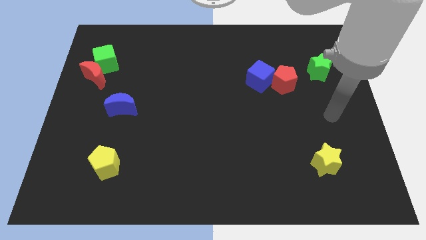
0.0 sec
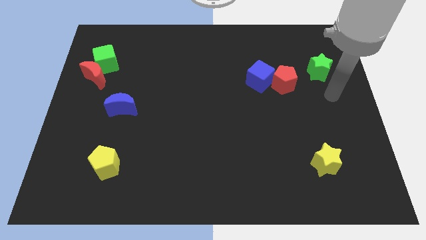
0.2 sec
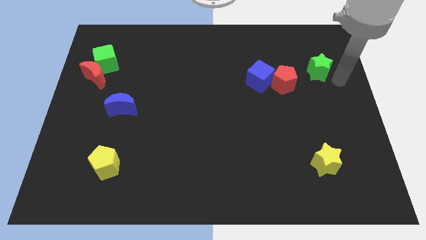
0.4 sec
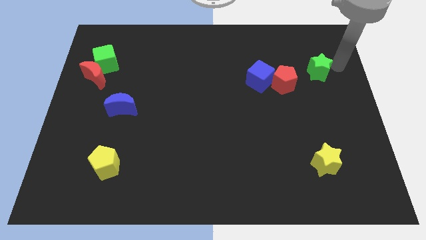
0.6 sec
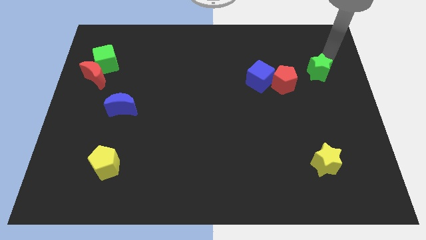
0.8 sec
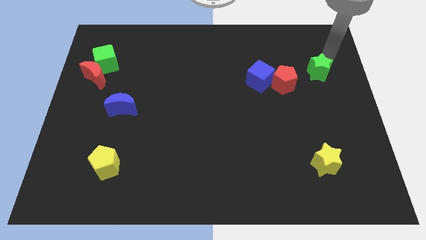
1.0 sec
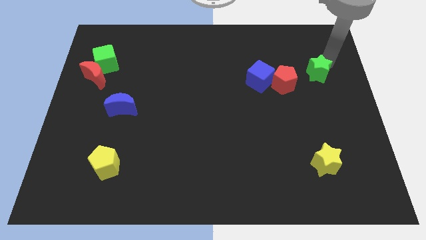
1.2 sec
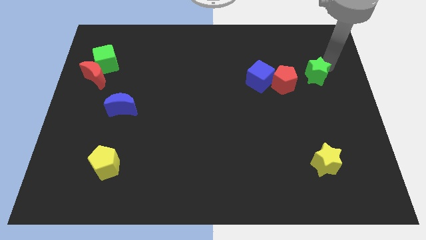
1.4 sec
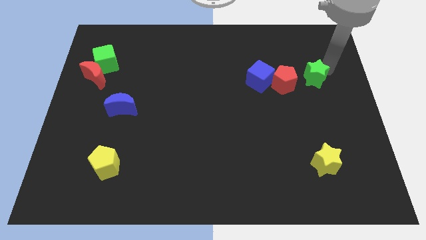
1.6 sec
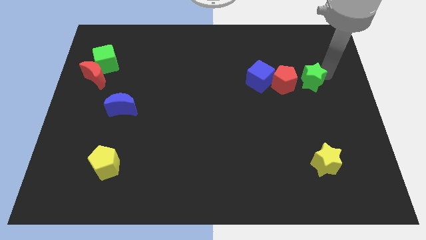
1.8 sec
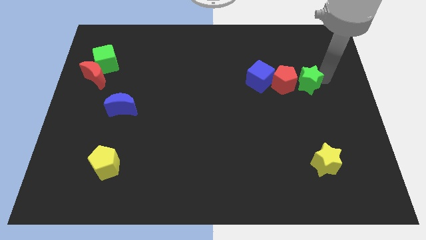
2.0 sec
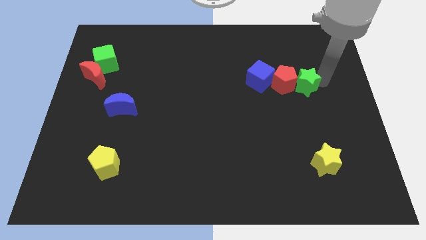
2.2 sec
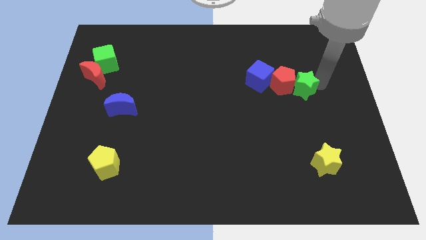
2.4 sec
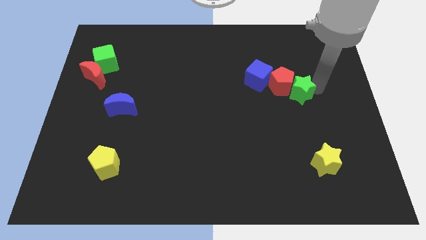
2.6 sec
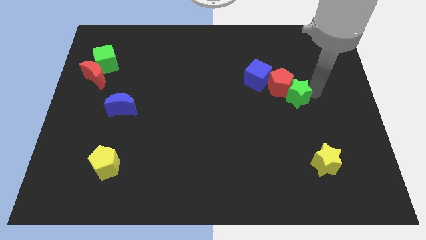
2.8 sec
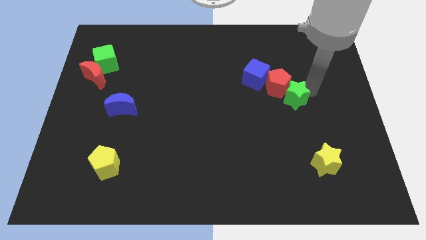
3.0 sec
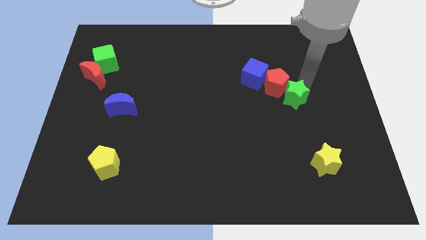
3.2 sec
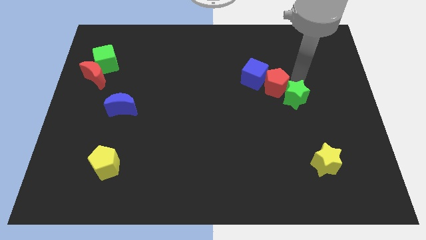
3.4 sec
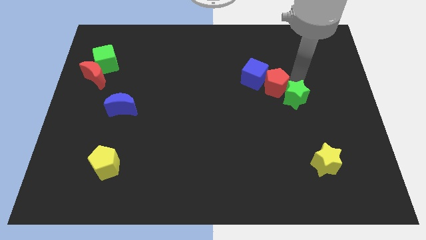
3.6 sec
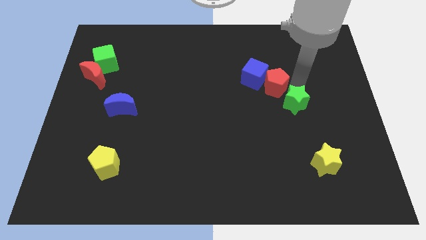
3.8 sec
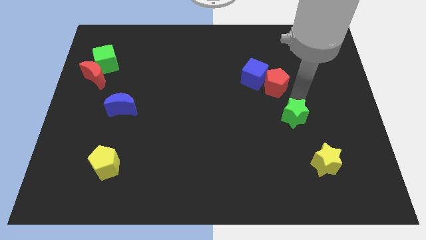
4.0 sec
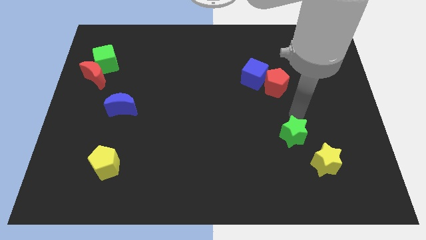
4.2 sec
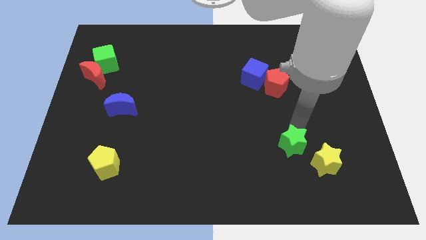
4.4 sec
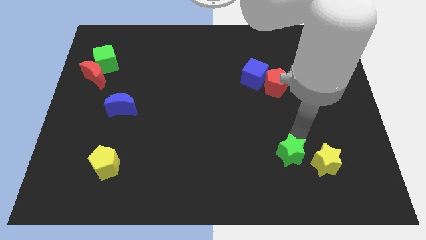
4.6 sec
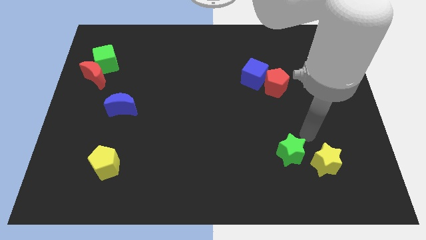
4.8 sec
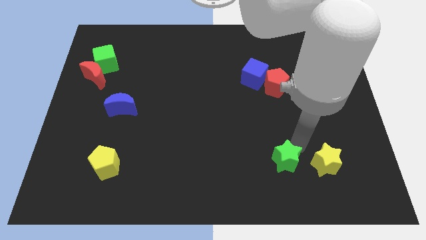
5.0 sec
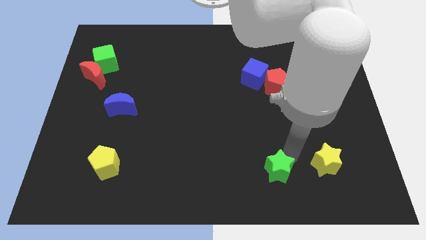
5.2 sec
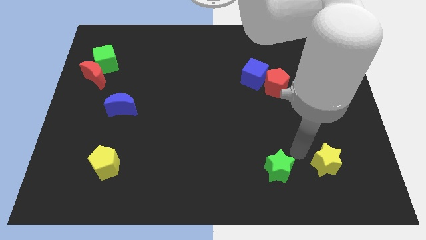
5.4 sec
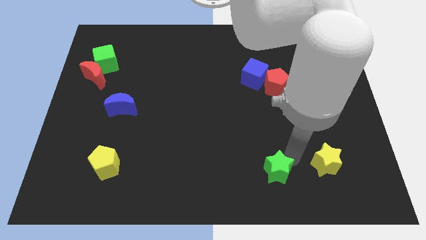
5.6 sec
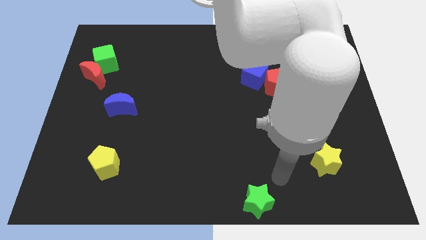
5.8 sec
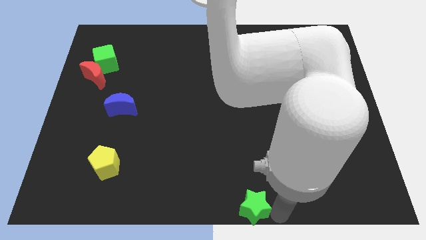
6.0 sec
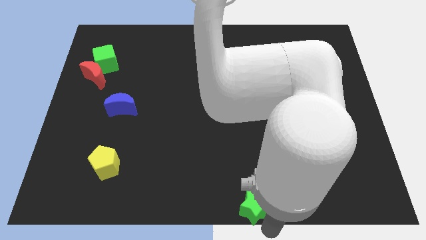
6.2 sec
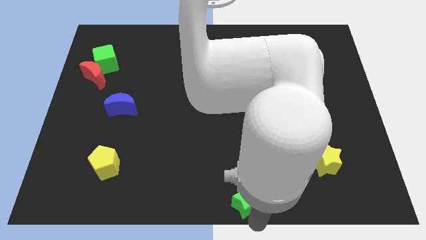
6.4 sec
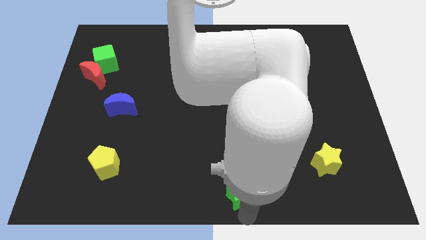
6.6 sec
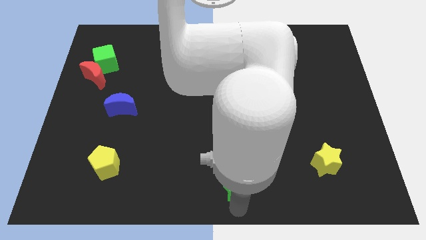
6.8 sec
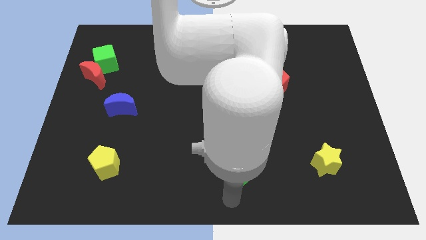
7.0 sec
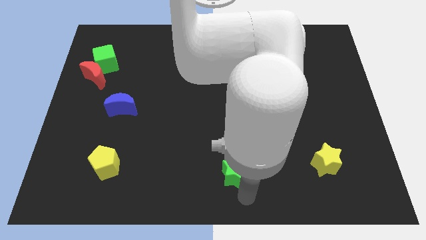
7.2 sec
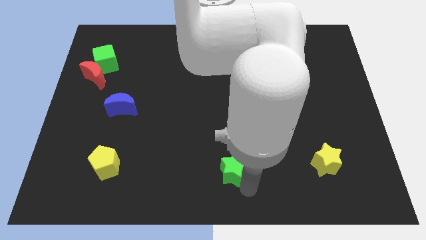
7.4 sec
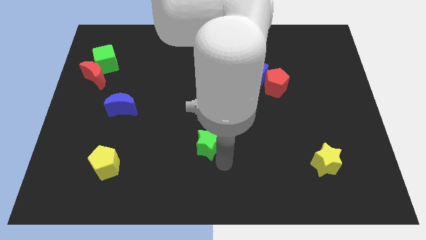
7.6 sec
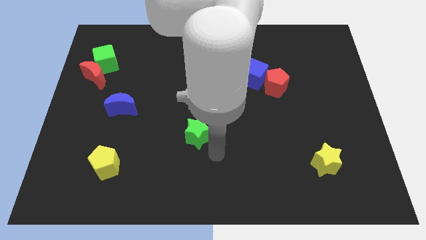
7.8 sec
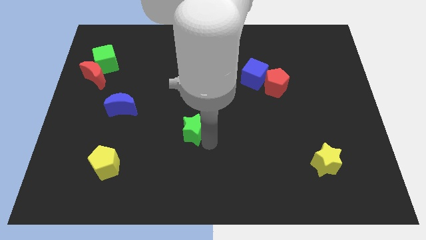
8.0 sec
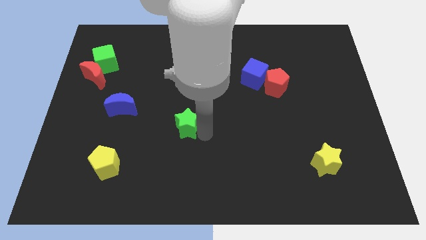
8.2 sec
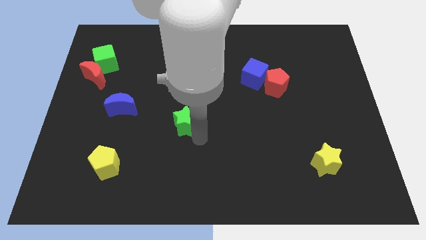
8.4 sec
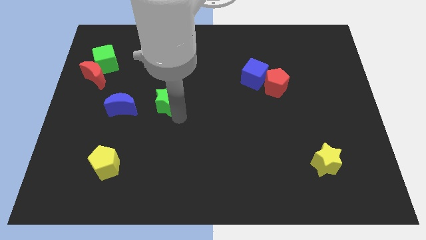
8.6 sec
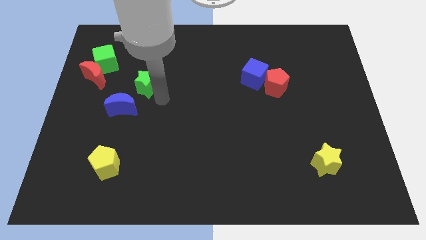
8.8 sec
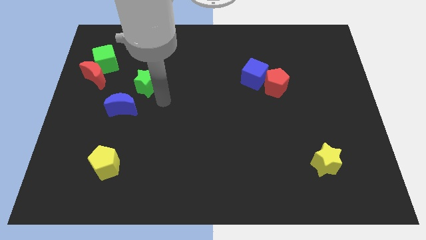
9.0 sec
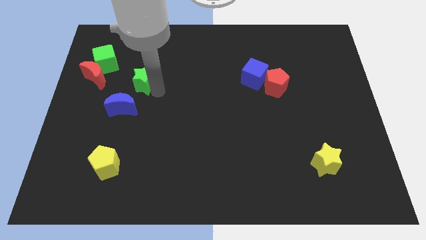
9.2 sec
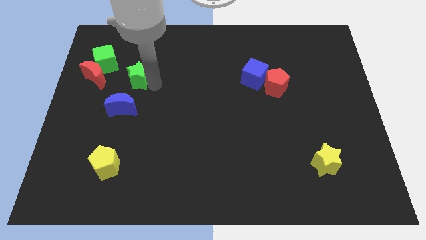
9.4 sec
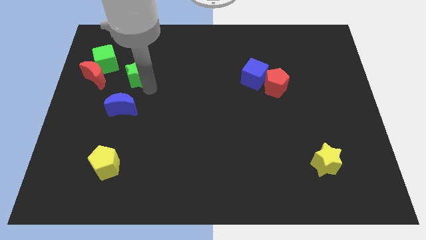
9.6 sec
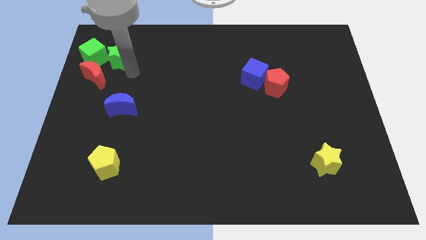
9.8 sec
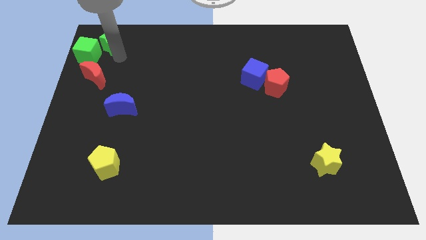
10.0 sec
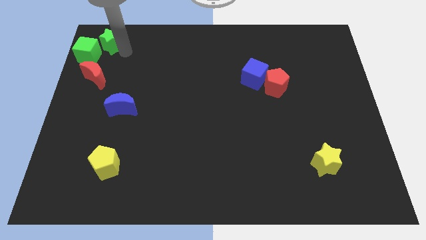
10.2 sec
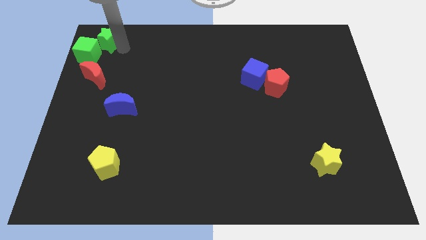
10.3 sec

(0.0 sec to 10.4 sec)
put the green star to the top left corner
